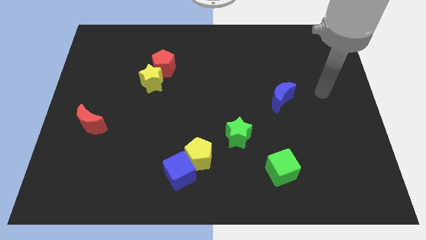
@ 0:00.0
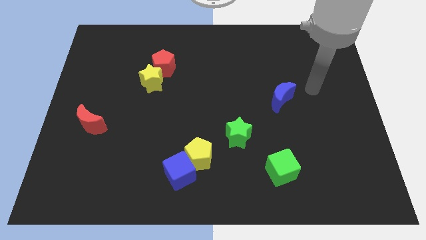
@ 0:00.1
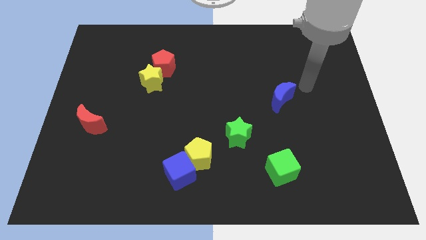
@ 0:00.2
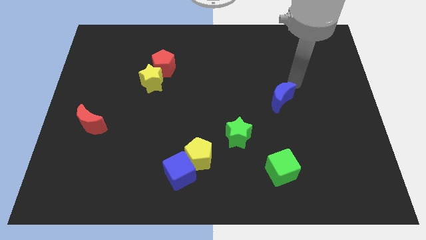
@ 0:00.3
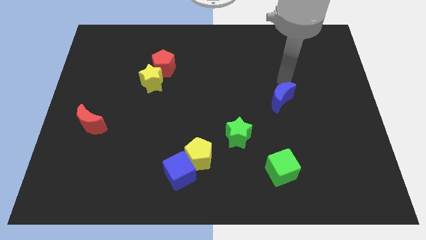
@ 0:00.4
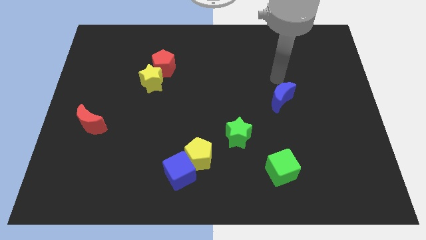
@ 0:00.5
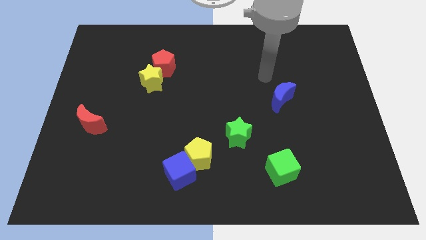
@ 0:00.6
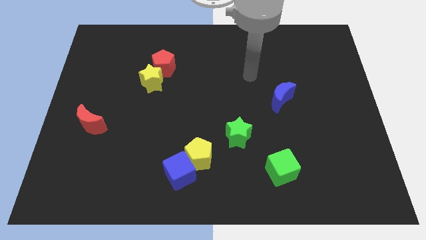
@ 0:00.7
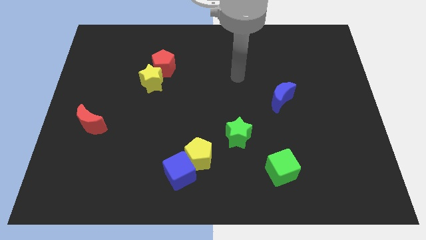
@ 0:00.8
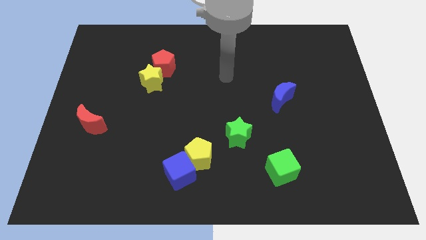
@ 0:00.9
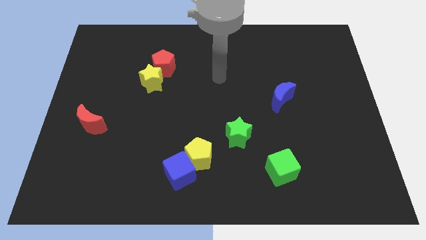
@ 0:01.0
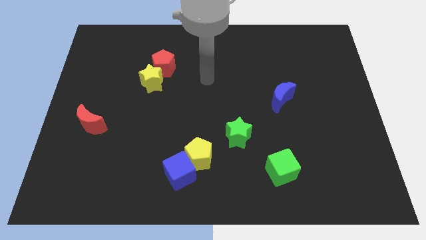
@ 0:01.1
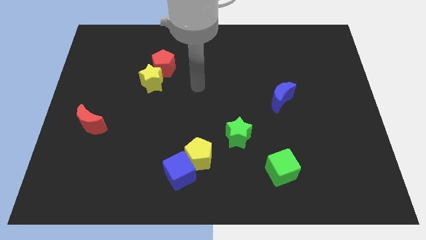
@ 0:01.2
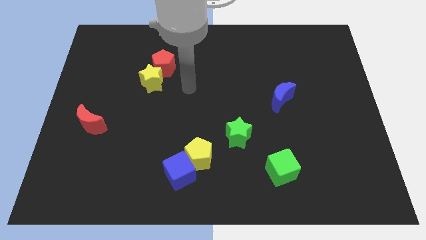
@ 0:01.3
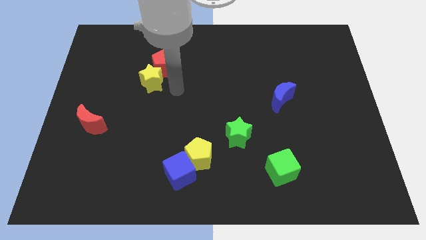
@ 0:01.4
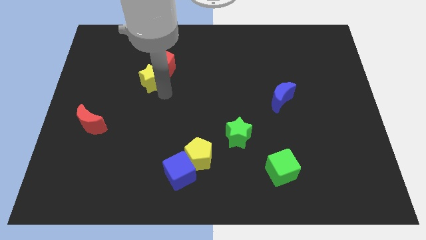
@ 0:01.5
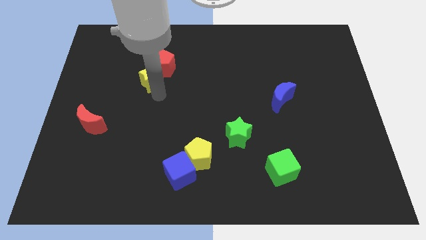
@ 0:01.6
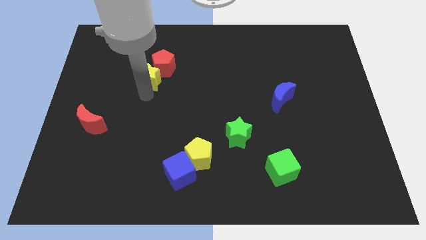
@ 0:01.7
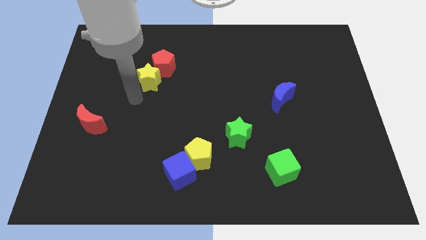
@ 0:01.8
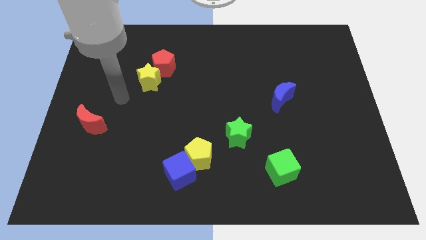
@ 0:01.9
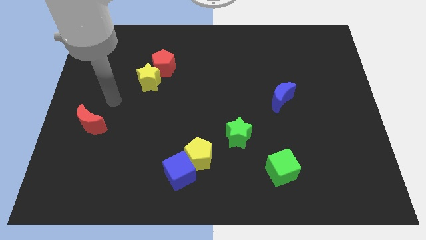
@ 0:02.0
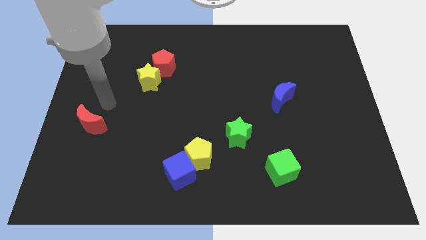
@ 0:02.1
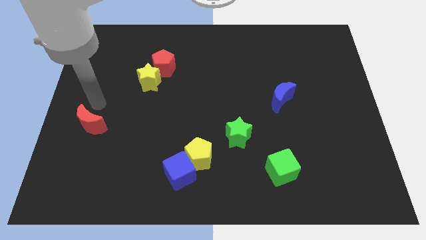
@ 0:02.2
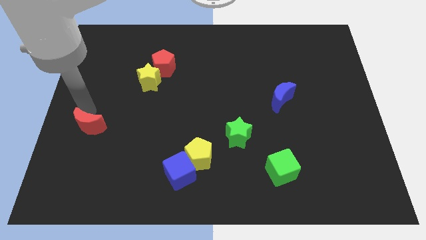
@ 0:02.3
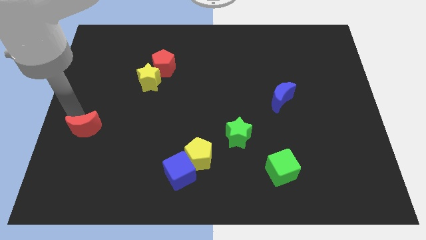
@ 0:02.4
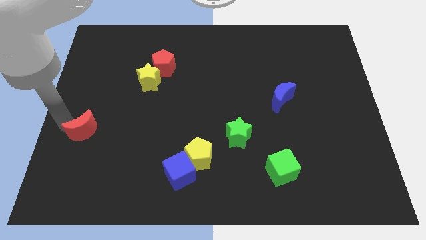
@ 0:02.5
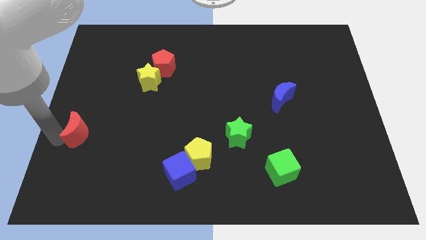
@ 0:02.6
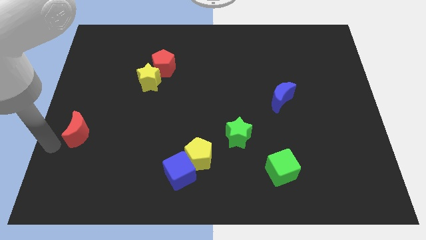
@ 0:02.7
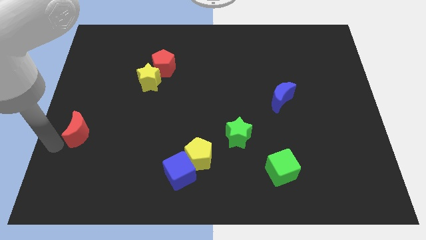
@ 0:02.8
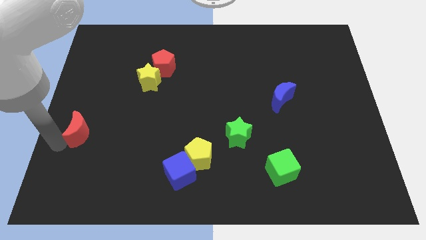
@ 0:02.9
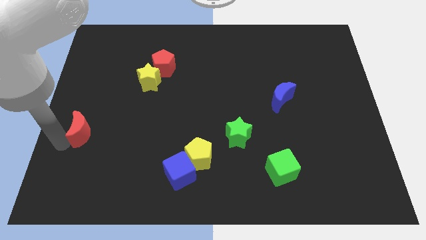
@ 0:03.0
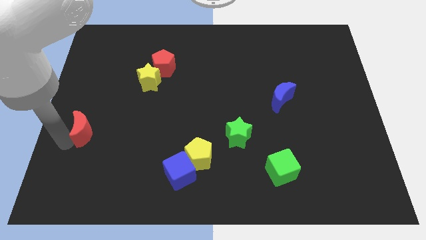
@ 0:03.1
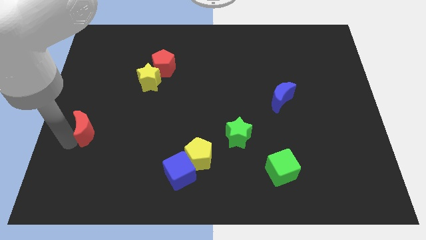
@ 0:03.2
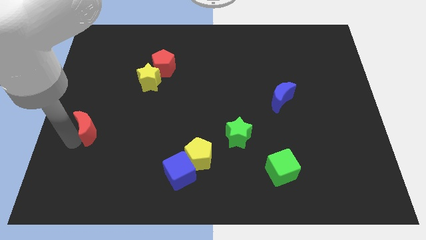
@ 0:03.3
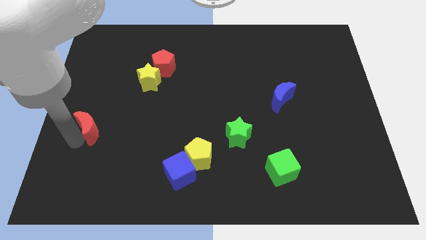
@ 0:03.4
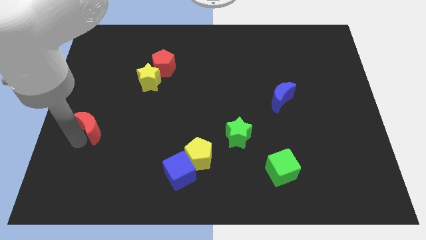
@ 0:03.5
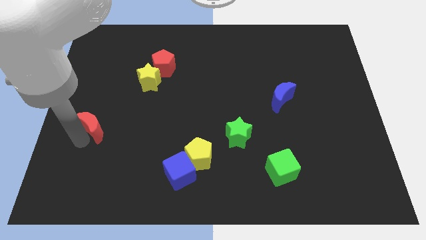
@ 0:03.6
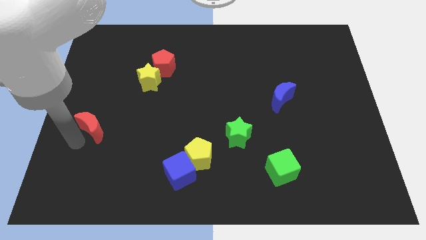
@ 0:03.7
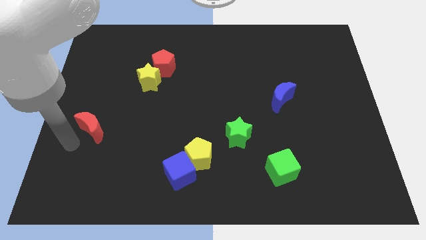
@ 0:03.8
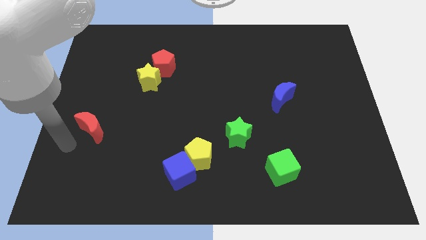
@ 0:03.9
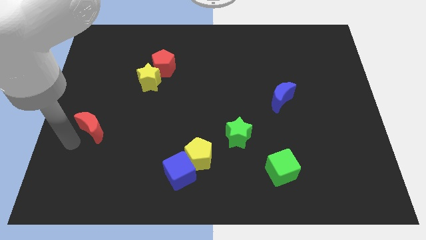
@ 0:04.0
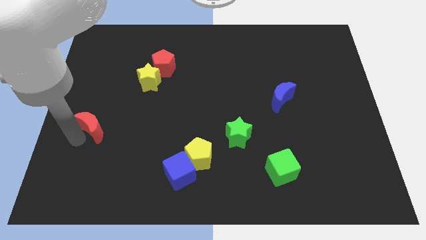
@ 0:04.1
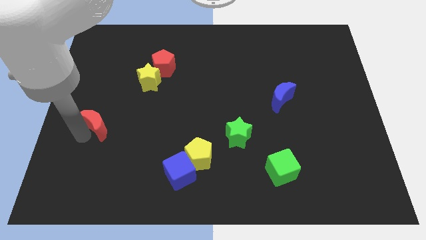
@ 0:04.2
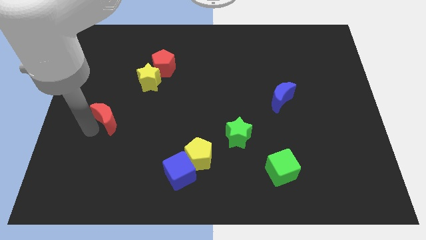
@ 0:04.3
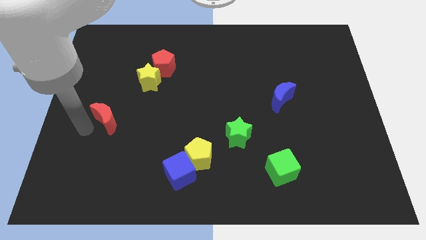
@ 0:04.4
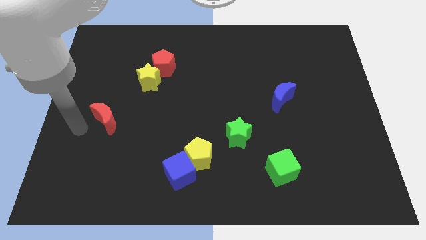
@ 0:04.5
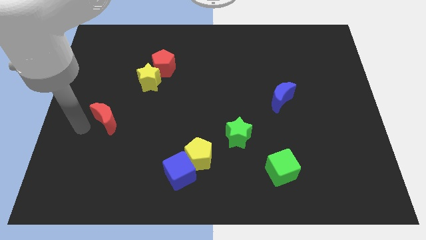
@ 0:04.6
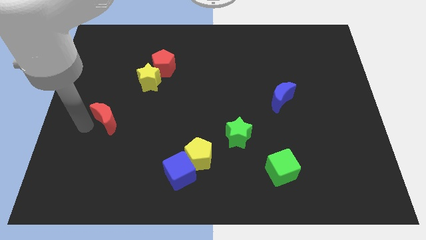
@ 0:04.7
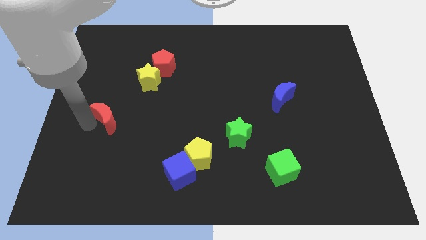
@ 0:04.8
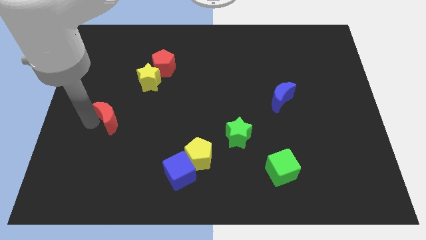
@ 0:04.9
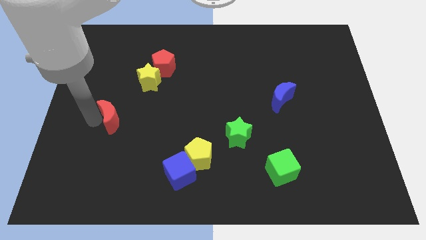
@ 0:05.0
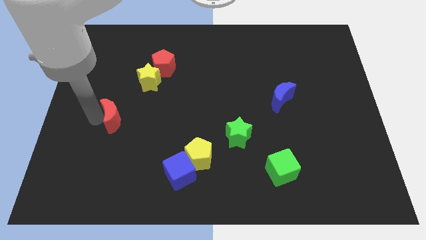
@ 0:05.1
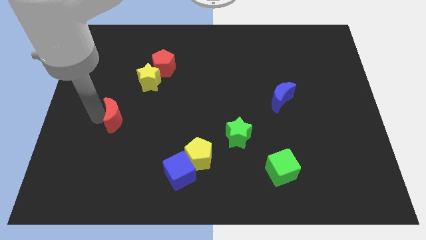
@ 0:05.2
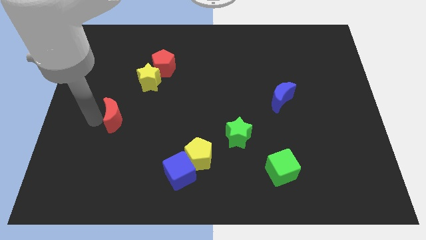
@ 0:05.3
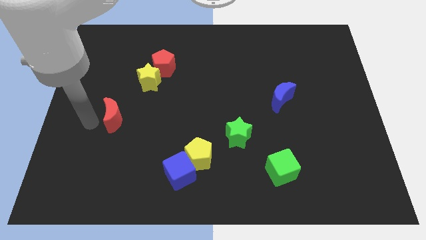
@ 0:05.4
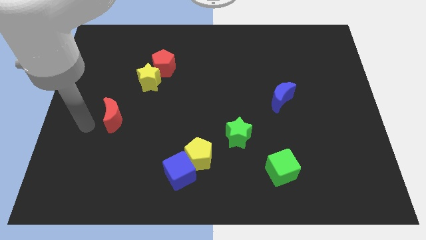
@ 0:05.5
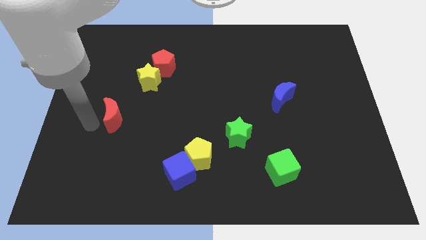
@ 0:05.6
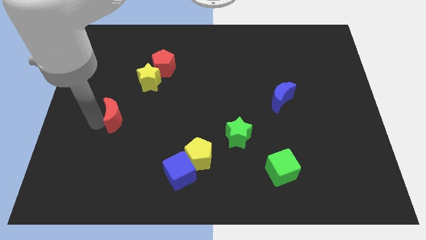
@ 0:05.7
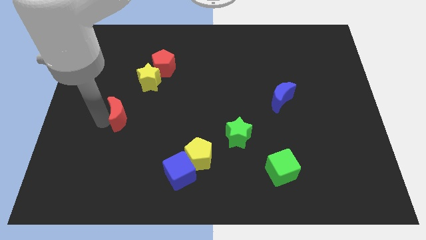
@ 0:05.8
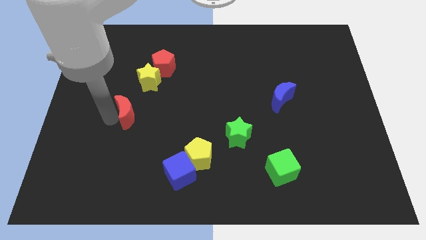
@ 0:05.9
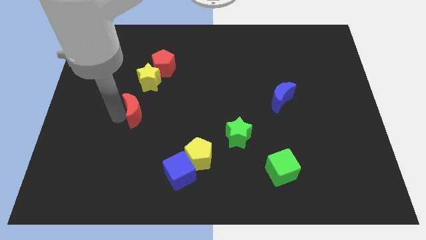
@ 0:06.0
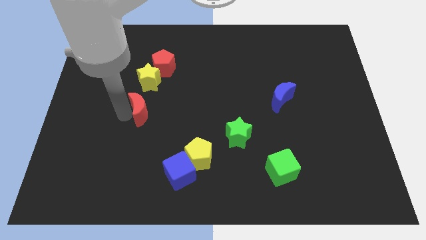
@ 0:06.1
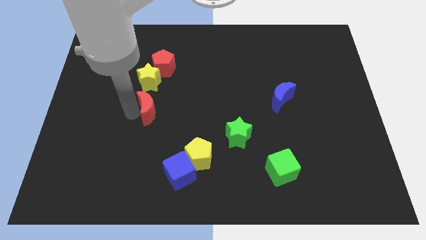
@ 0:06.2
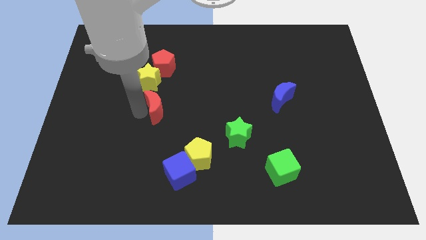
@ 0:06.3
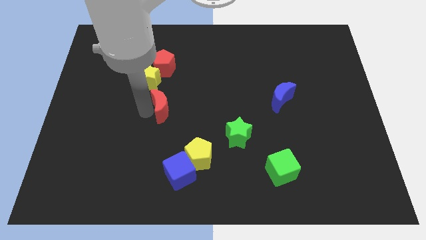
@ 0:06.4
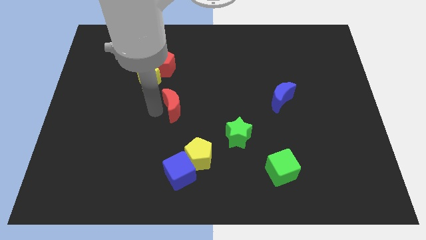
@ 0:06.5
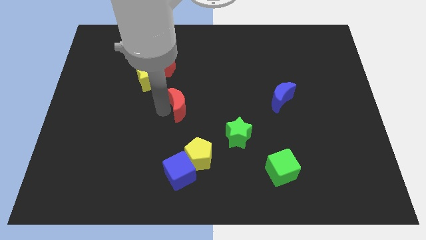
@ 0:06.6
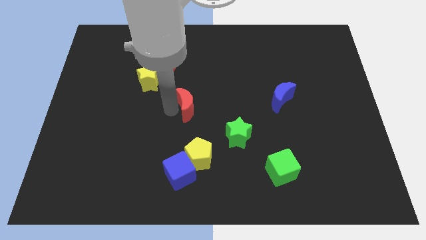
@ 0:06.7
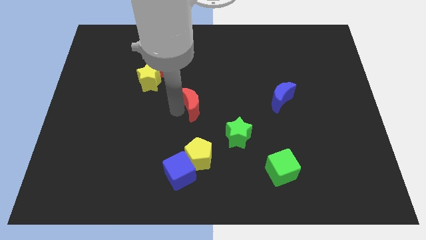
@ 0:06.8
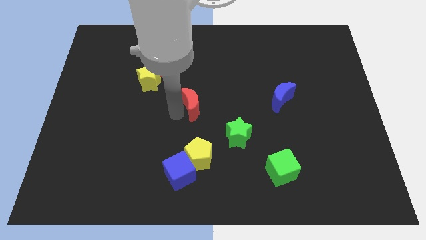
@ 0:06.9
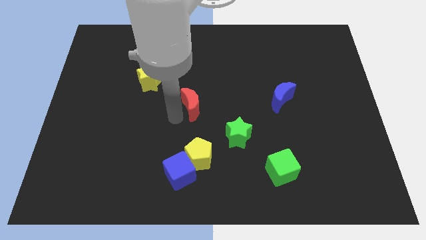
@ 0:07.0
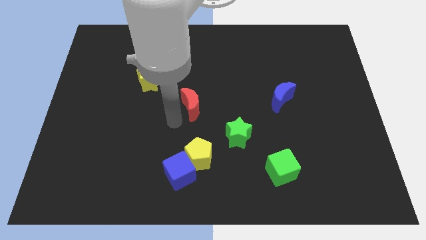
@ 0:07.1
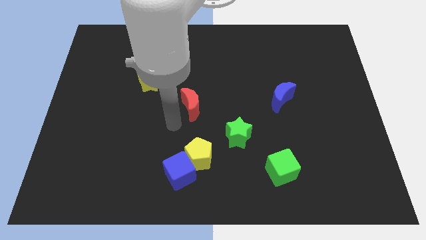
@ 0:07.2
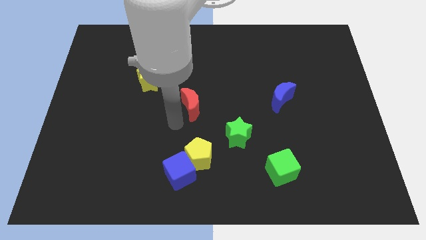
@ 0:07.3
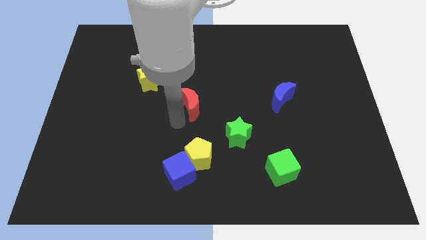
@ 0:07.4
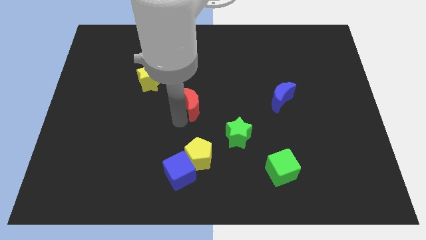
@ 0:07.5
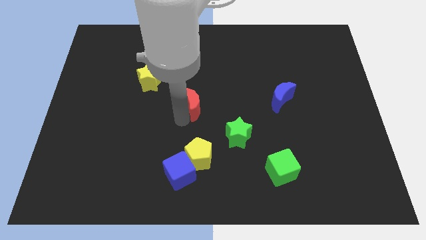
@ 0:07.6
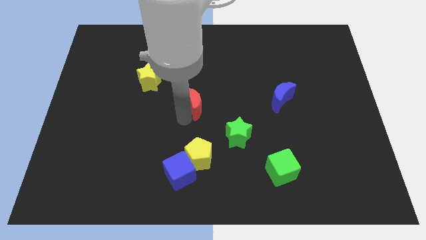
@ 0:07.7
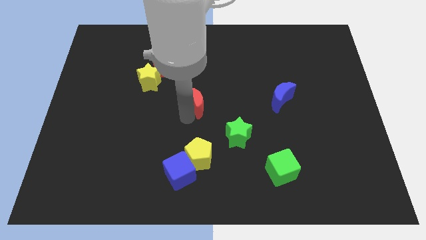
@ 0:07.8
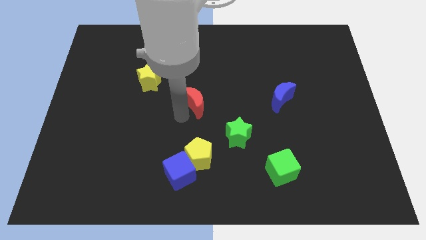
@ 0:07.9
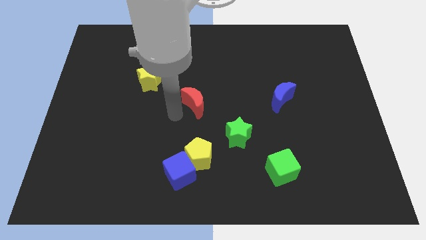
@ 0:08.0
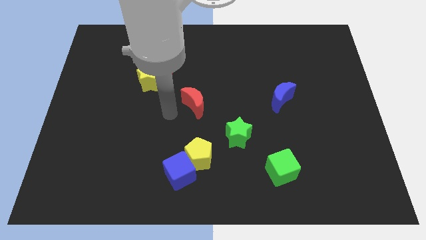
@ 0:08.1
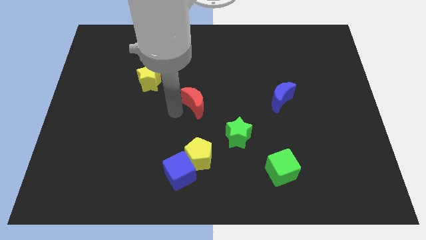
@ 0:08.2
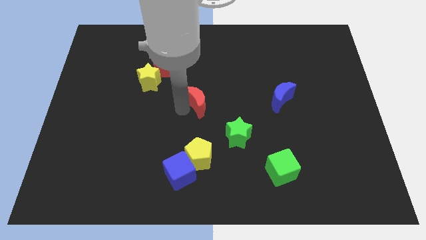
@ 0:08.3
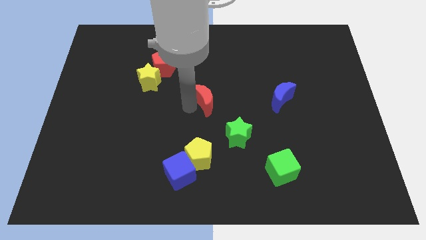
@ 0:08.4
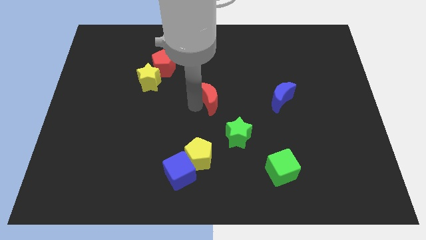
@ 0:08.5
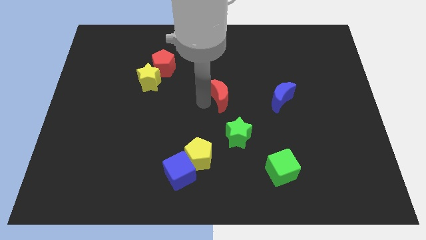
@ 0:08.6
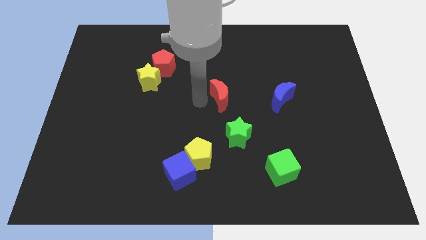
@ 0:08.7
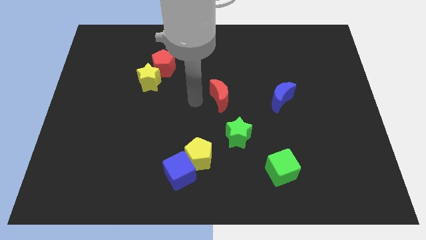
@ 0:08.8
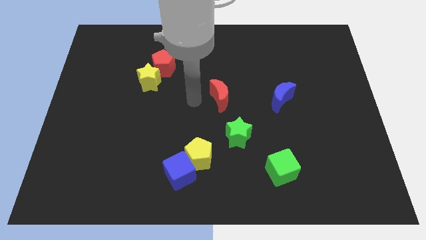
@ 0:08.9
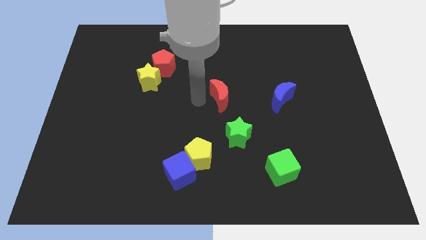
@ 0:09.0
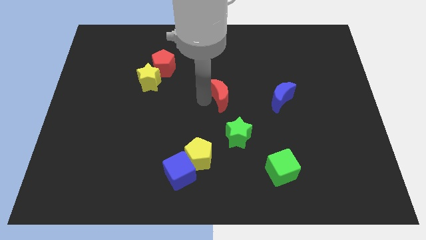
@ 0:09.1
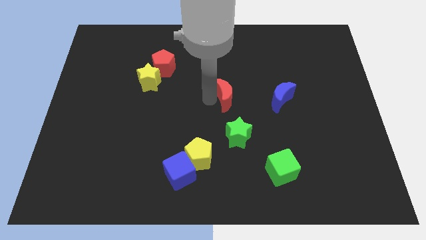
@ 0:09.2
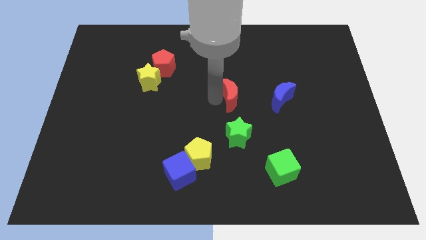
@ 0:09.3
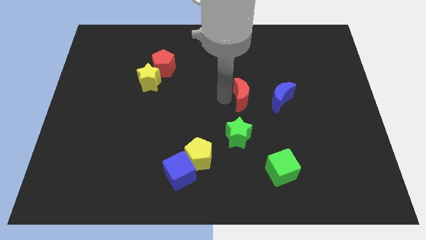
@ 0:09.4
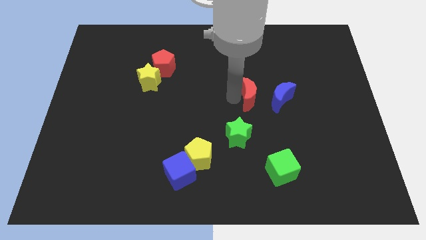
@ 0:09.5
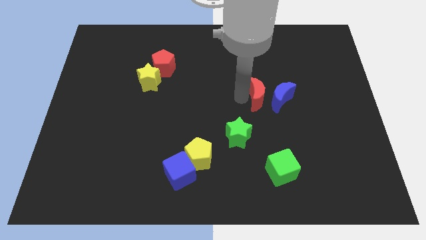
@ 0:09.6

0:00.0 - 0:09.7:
slide the red moon to the blue moon
